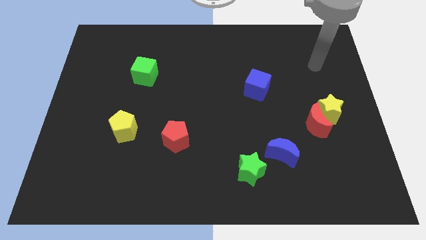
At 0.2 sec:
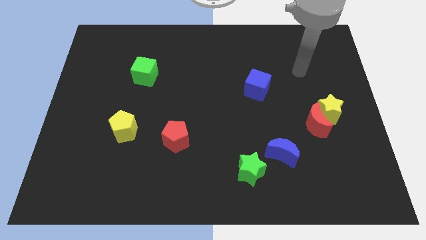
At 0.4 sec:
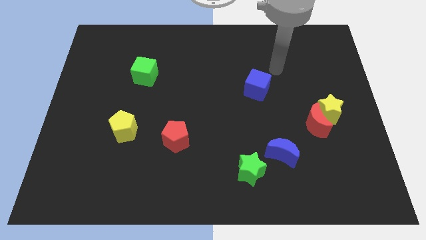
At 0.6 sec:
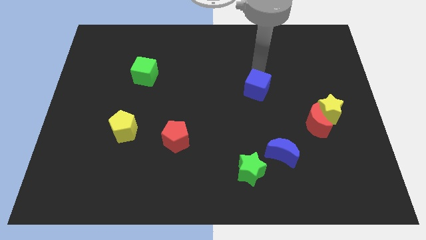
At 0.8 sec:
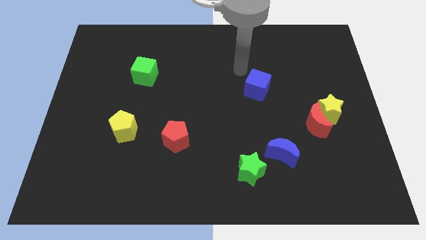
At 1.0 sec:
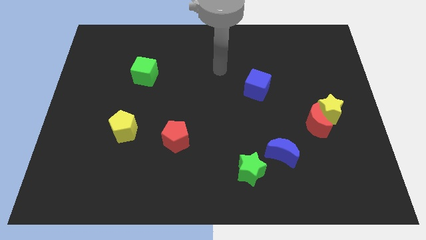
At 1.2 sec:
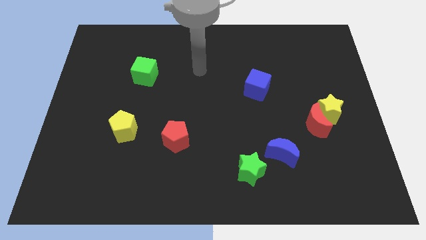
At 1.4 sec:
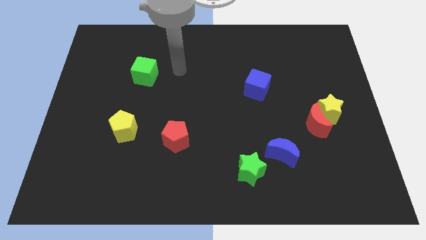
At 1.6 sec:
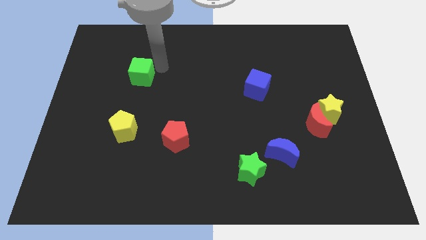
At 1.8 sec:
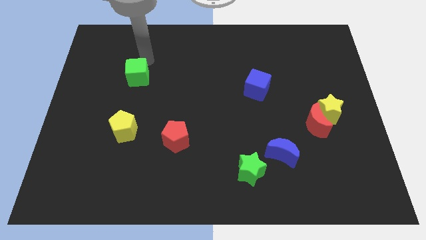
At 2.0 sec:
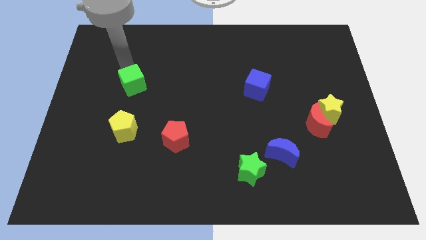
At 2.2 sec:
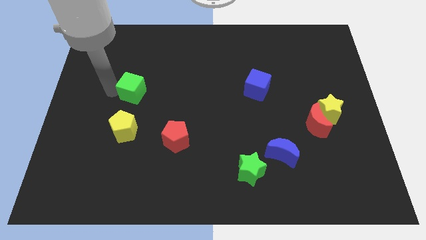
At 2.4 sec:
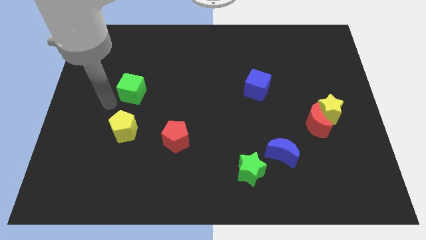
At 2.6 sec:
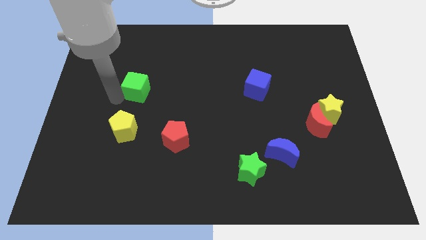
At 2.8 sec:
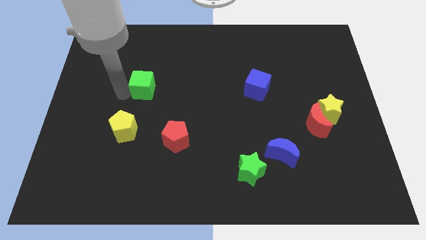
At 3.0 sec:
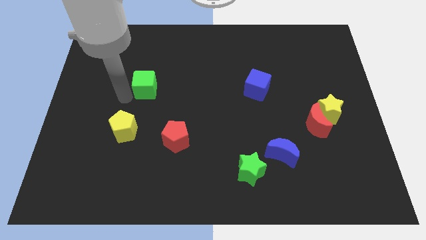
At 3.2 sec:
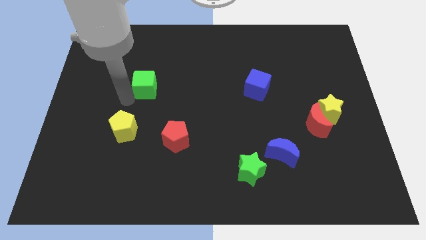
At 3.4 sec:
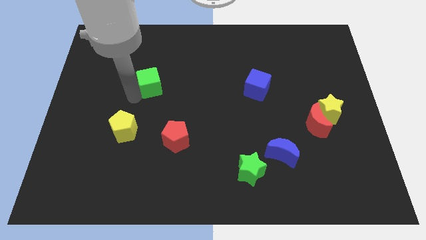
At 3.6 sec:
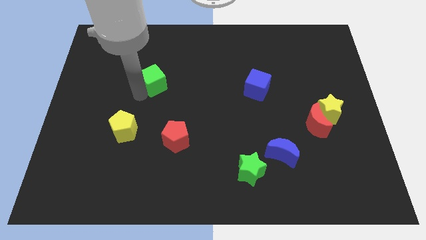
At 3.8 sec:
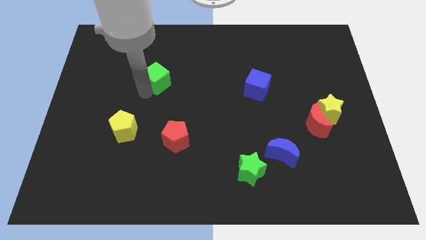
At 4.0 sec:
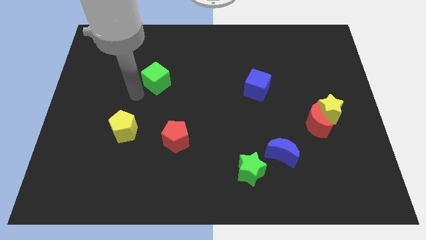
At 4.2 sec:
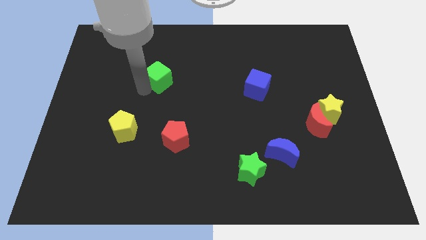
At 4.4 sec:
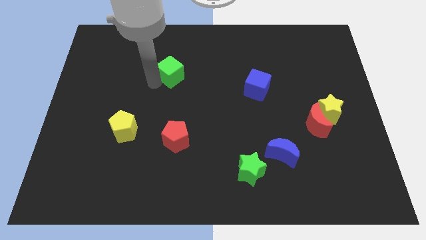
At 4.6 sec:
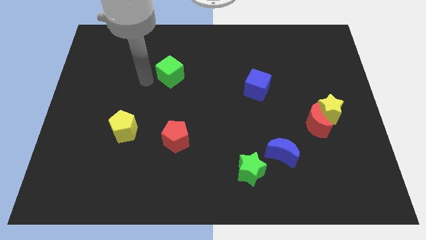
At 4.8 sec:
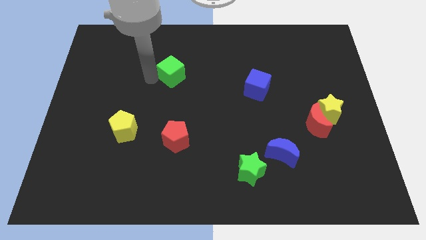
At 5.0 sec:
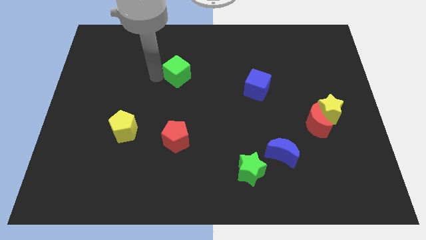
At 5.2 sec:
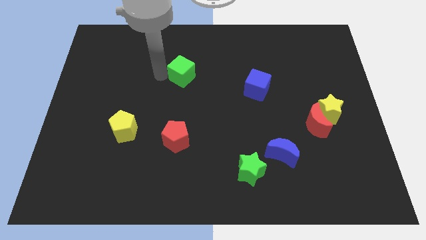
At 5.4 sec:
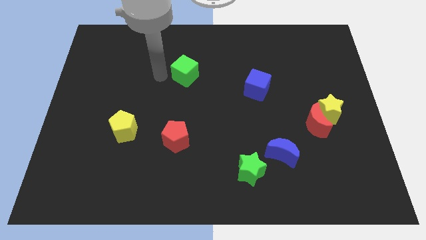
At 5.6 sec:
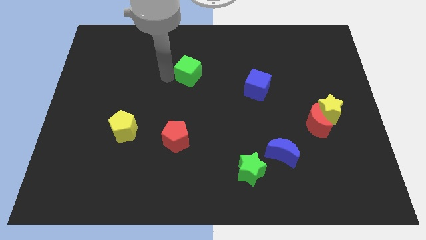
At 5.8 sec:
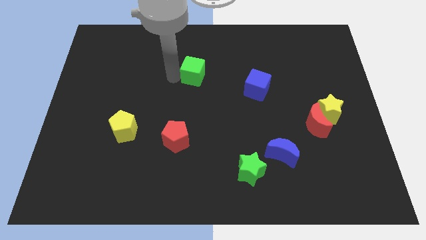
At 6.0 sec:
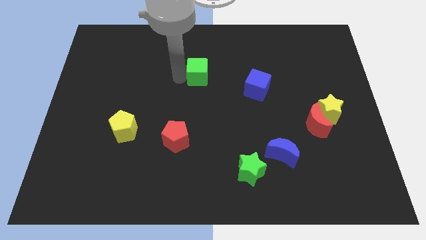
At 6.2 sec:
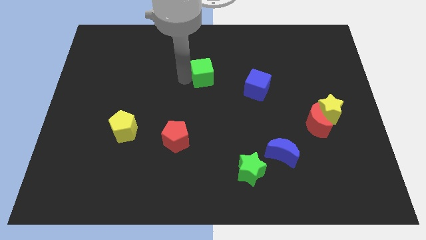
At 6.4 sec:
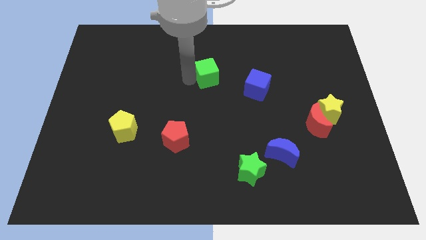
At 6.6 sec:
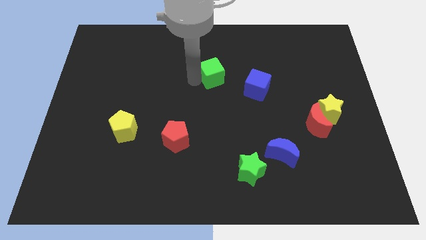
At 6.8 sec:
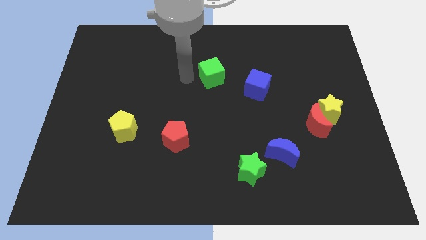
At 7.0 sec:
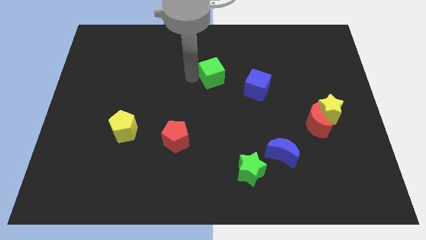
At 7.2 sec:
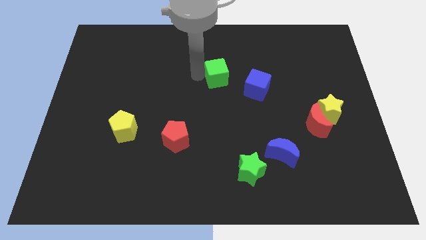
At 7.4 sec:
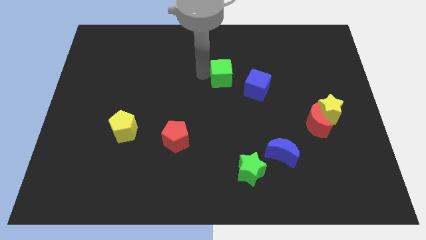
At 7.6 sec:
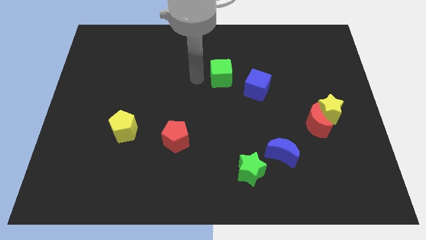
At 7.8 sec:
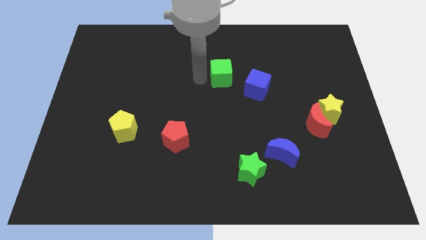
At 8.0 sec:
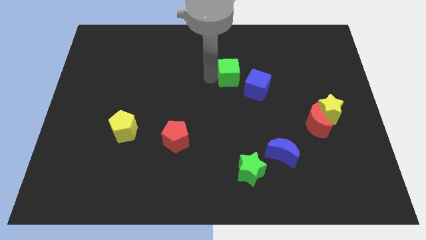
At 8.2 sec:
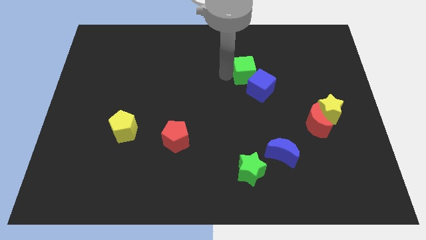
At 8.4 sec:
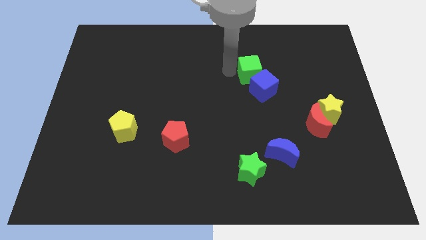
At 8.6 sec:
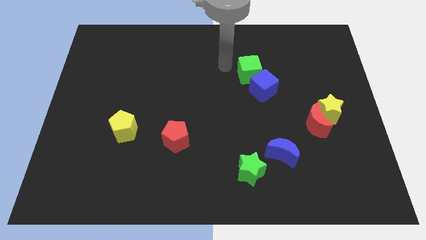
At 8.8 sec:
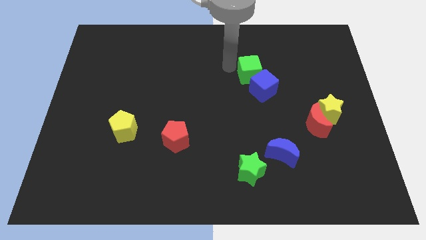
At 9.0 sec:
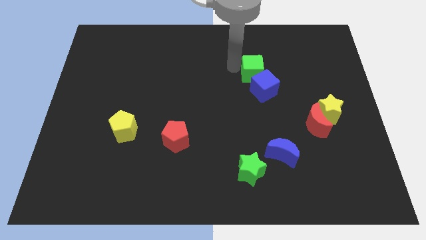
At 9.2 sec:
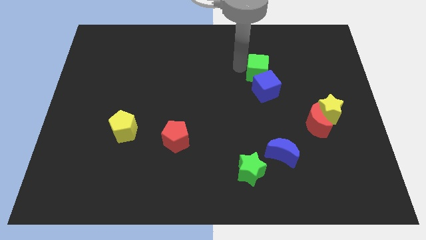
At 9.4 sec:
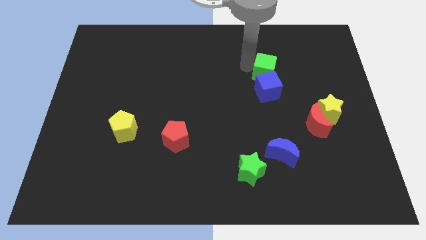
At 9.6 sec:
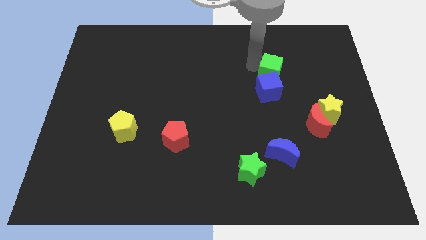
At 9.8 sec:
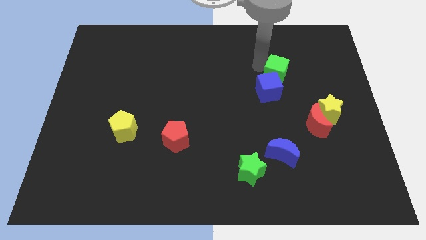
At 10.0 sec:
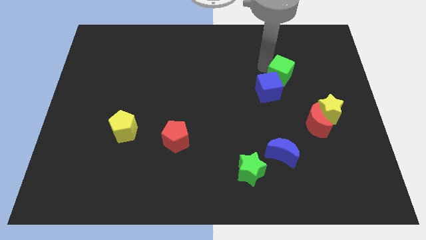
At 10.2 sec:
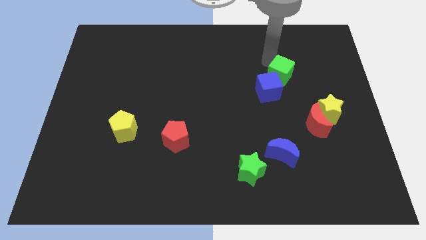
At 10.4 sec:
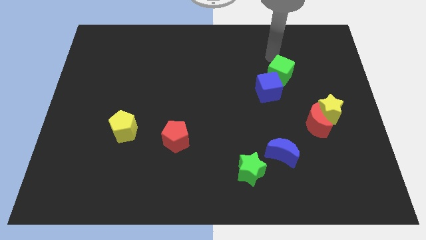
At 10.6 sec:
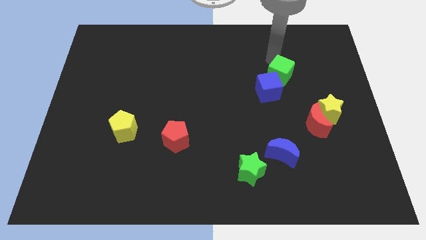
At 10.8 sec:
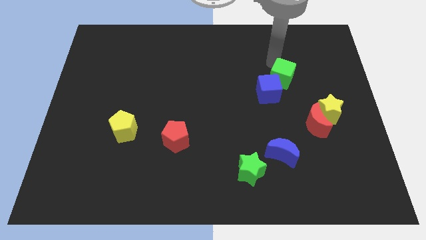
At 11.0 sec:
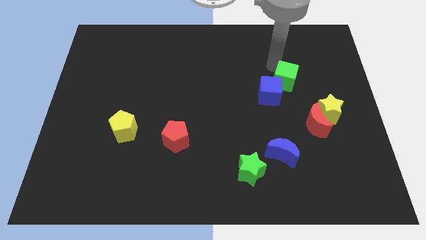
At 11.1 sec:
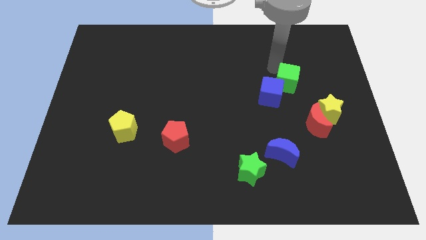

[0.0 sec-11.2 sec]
put the green cube to the top left side of the yellow star

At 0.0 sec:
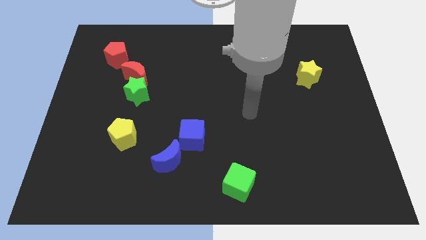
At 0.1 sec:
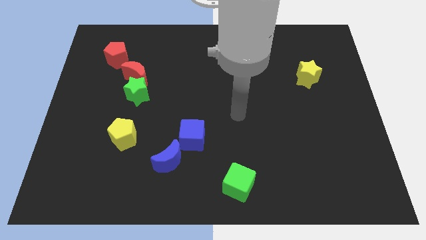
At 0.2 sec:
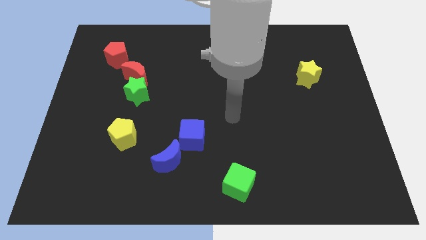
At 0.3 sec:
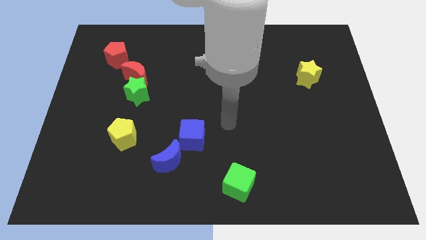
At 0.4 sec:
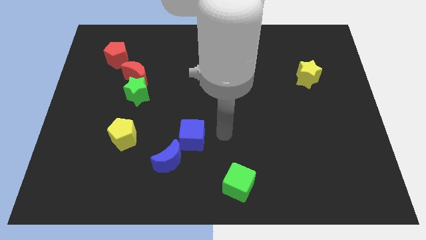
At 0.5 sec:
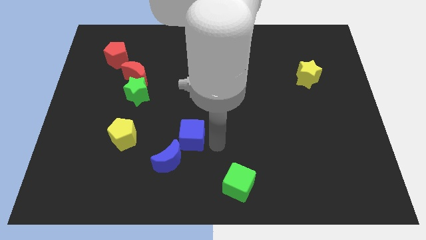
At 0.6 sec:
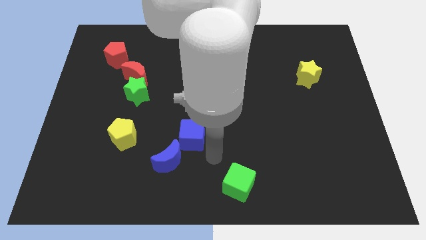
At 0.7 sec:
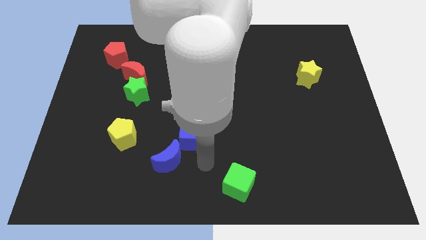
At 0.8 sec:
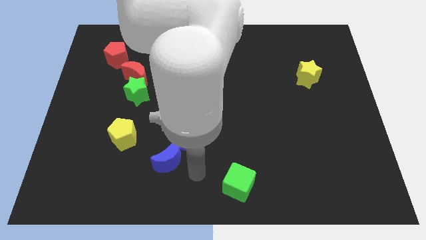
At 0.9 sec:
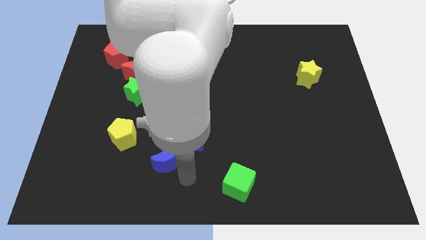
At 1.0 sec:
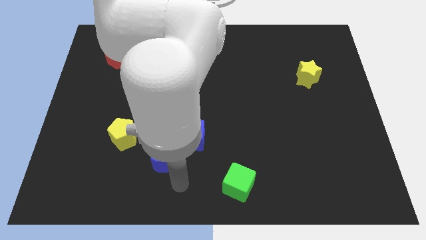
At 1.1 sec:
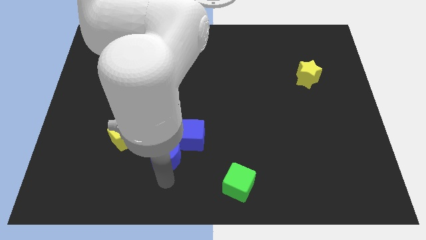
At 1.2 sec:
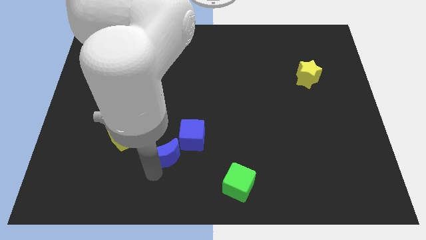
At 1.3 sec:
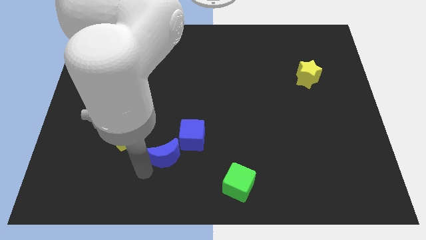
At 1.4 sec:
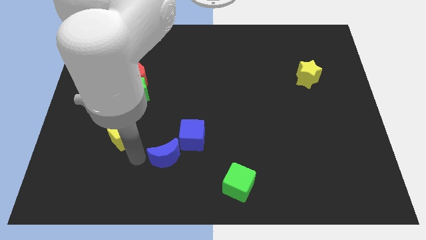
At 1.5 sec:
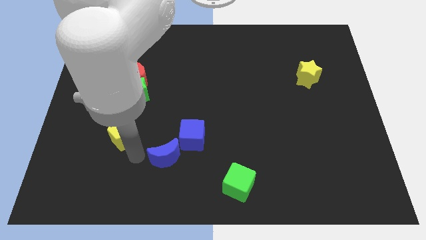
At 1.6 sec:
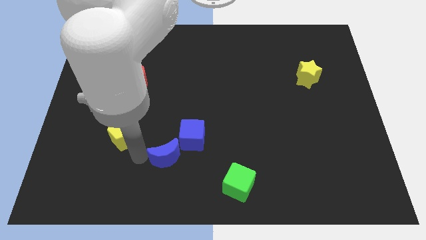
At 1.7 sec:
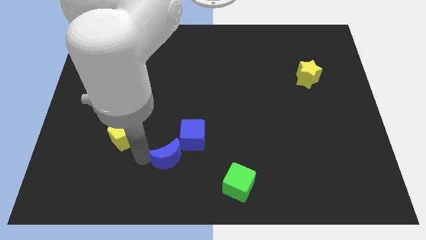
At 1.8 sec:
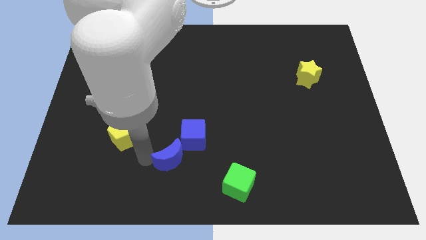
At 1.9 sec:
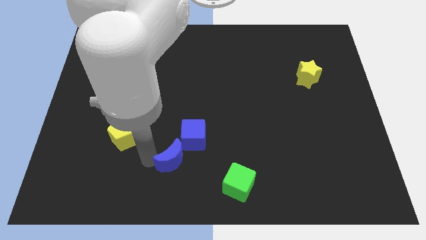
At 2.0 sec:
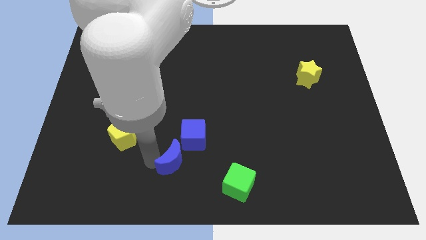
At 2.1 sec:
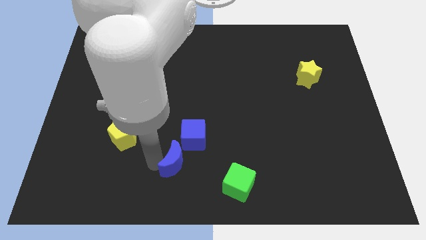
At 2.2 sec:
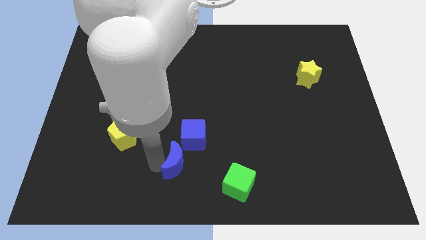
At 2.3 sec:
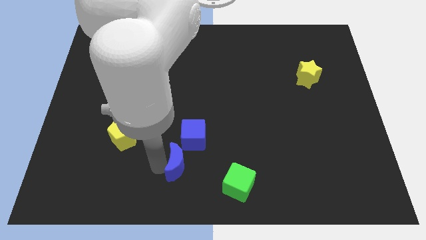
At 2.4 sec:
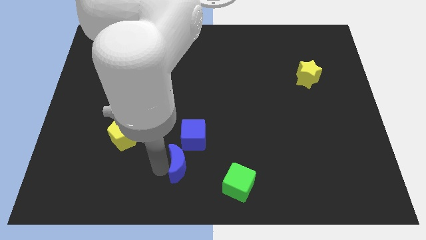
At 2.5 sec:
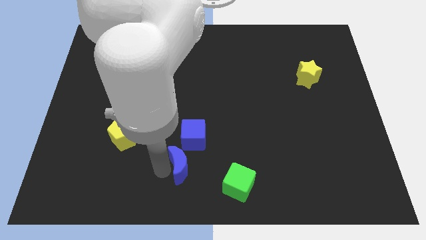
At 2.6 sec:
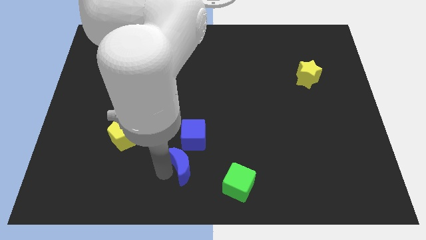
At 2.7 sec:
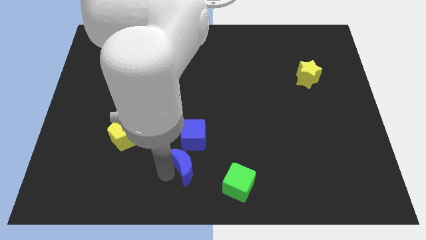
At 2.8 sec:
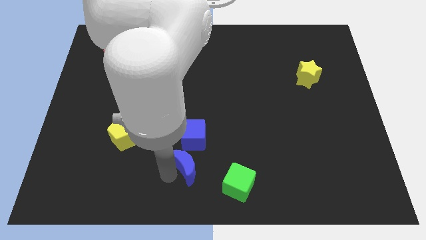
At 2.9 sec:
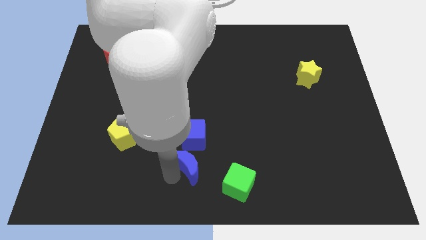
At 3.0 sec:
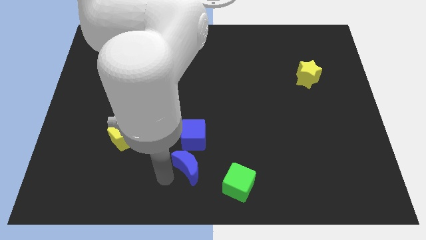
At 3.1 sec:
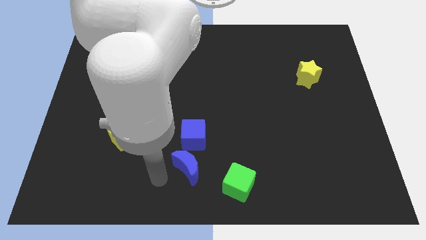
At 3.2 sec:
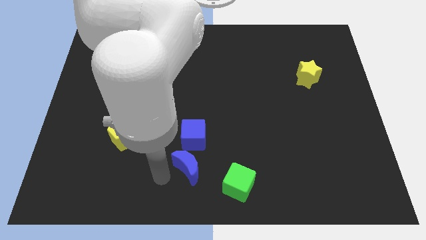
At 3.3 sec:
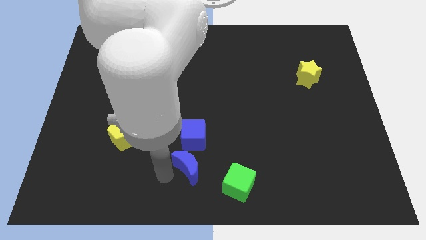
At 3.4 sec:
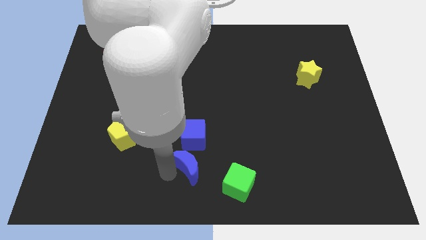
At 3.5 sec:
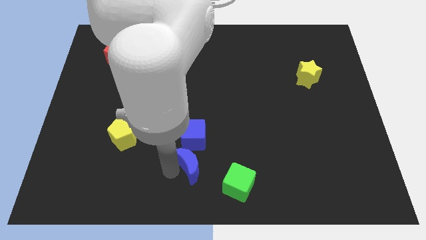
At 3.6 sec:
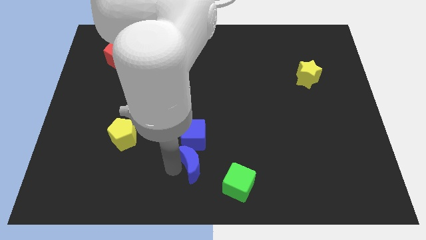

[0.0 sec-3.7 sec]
push the blue moon diagonally down and to the right of the blue cube
